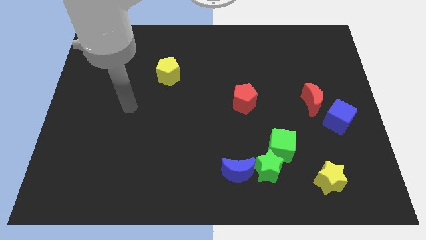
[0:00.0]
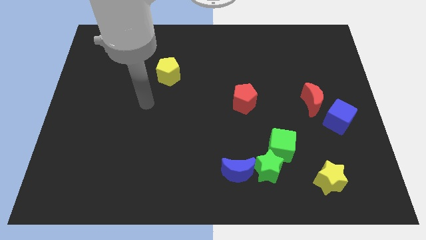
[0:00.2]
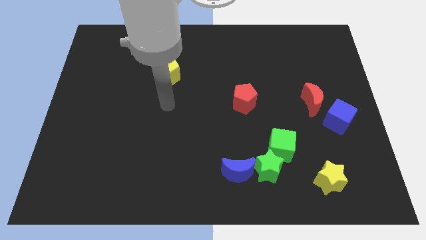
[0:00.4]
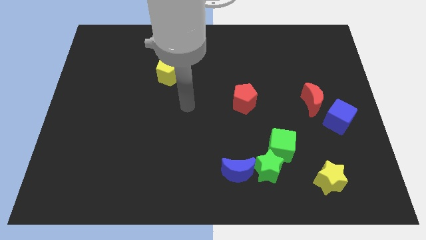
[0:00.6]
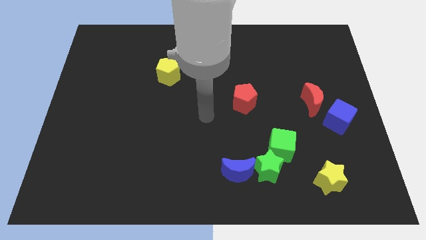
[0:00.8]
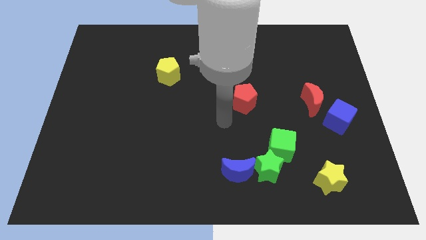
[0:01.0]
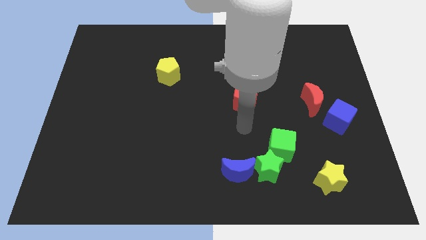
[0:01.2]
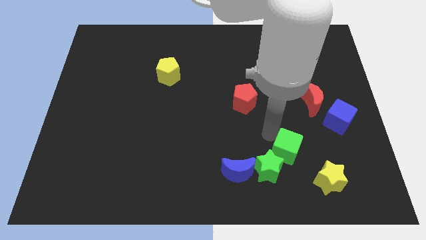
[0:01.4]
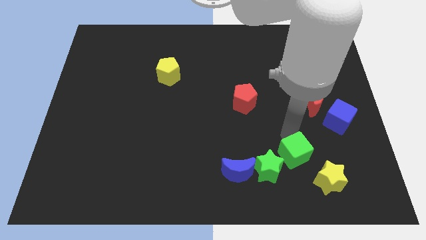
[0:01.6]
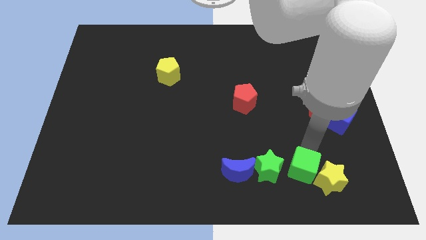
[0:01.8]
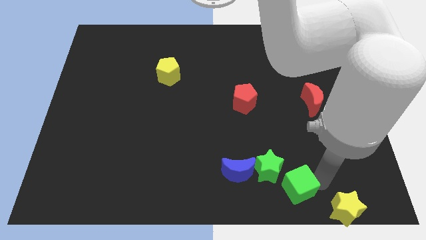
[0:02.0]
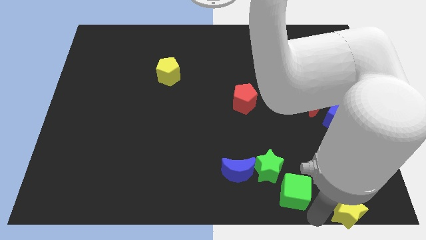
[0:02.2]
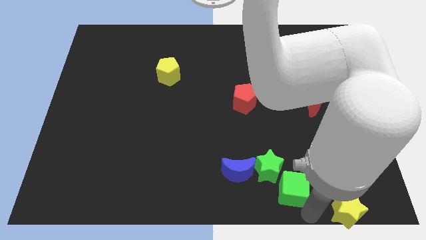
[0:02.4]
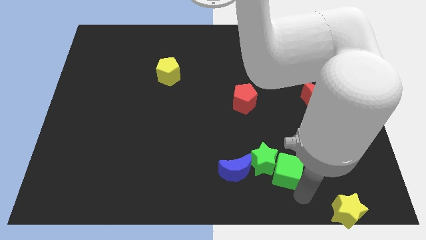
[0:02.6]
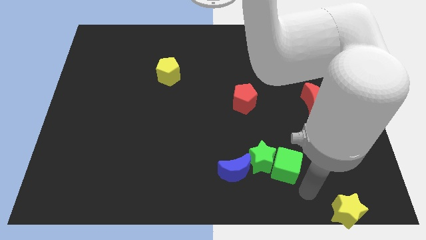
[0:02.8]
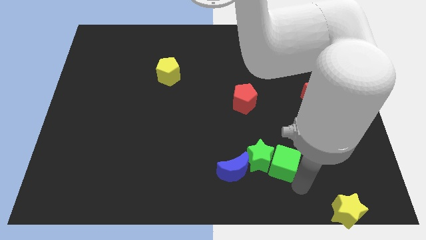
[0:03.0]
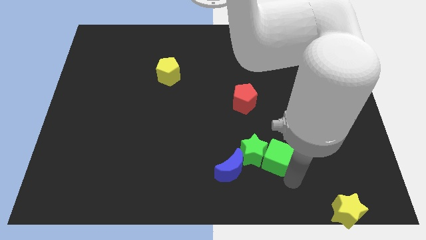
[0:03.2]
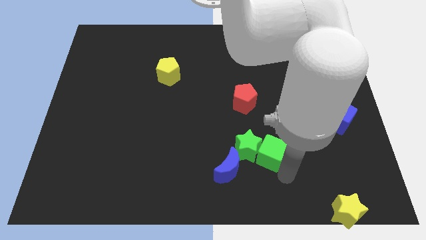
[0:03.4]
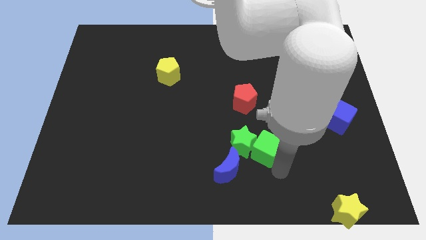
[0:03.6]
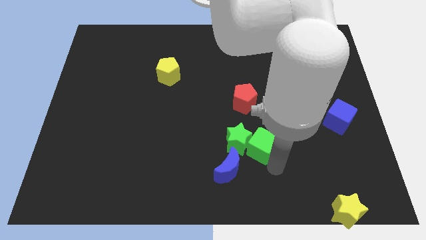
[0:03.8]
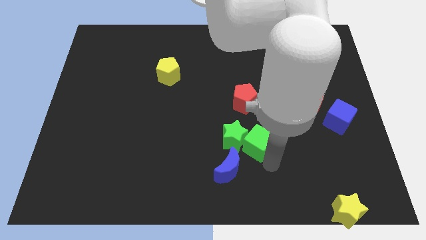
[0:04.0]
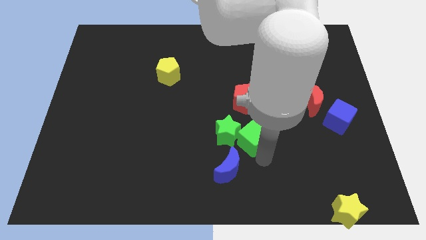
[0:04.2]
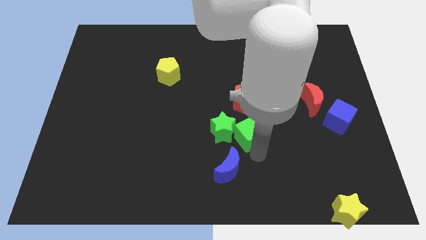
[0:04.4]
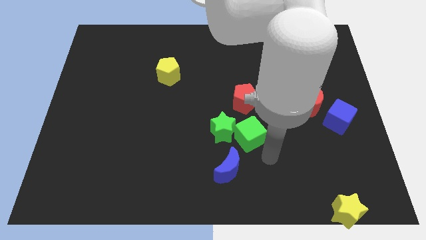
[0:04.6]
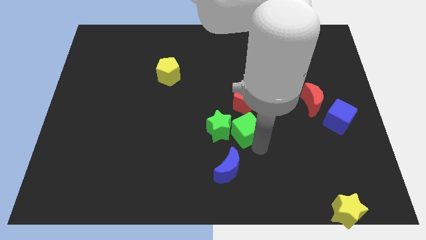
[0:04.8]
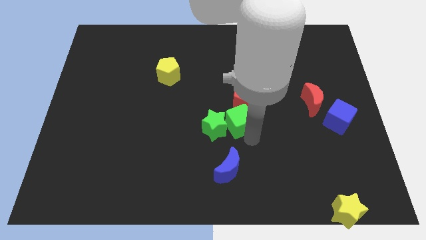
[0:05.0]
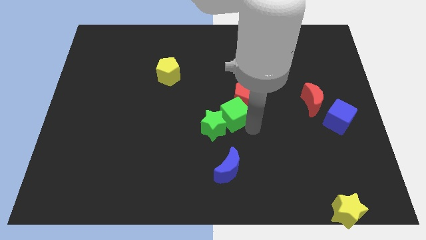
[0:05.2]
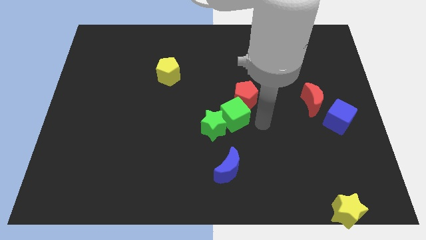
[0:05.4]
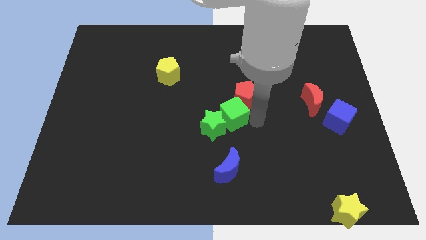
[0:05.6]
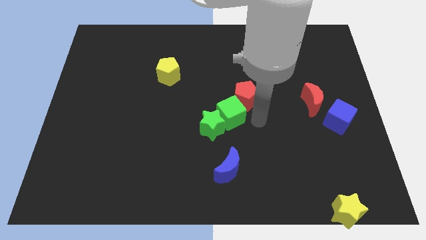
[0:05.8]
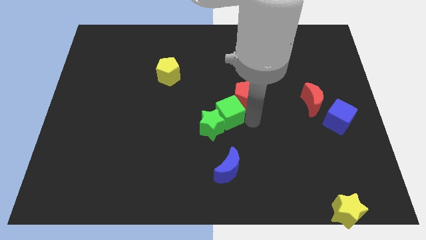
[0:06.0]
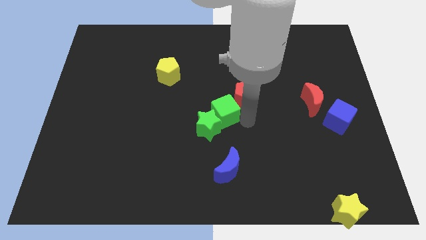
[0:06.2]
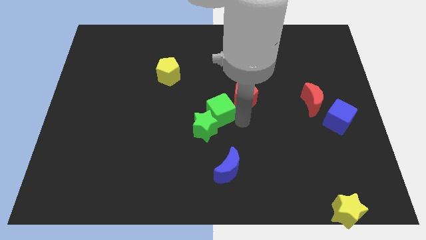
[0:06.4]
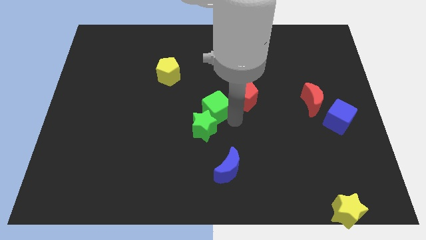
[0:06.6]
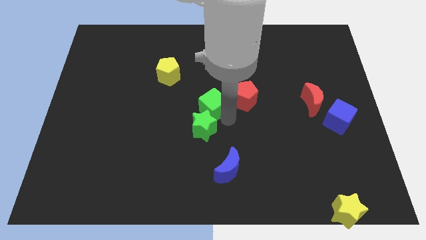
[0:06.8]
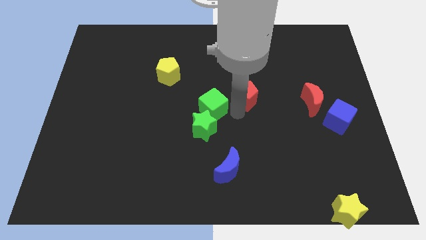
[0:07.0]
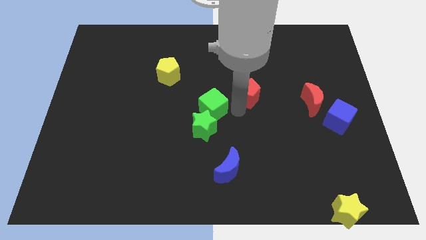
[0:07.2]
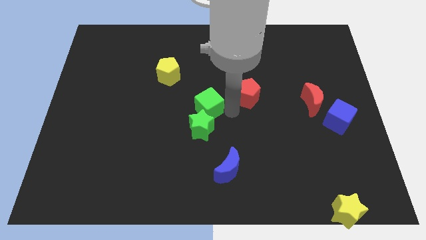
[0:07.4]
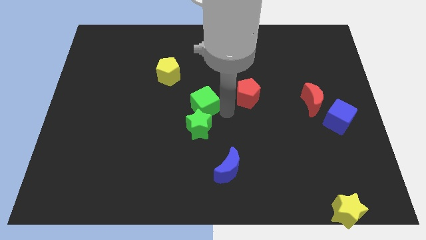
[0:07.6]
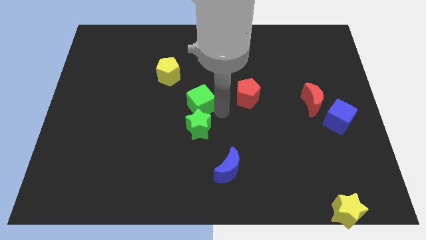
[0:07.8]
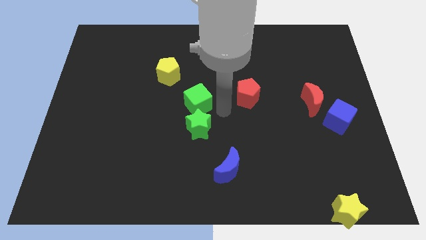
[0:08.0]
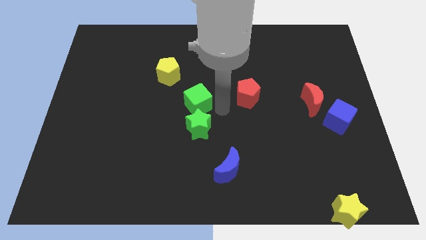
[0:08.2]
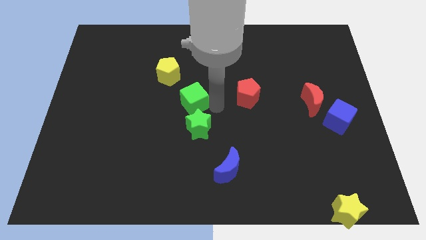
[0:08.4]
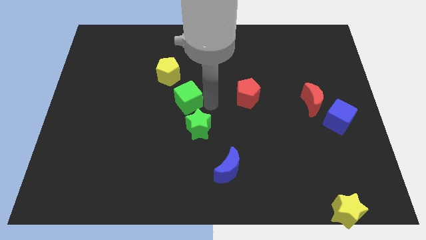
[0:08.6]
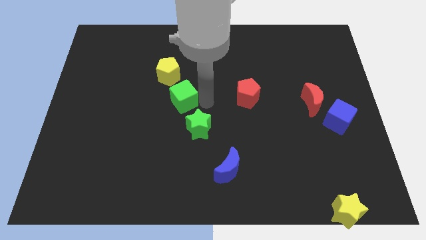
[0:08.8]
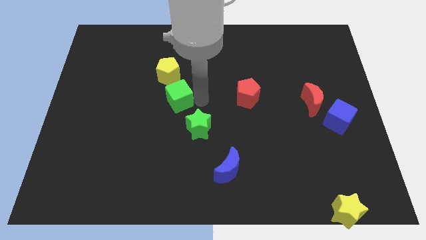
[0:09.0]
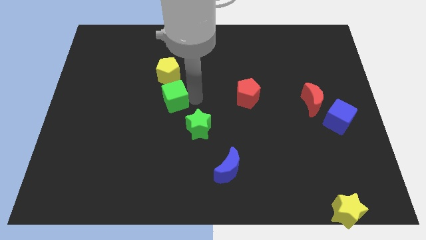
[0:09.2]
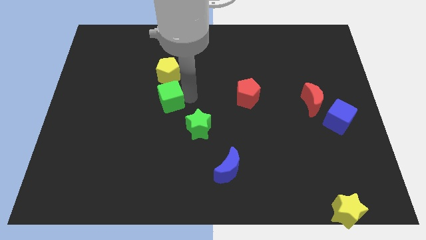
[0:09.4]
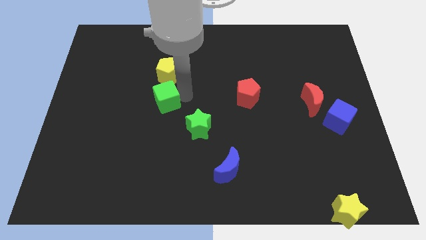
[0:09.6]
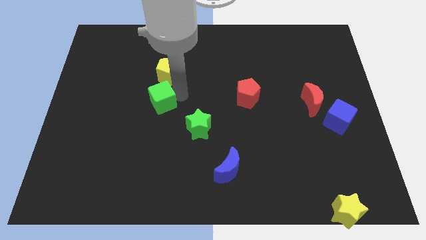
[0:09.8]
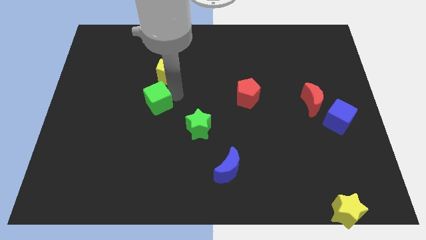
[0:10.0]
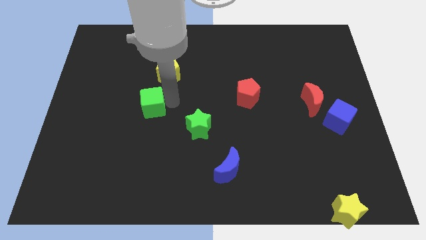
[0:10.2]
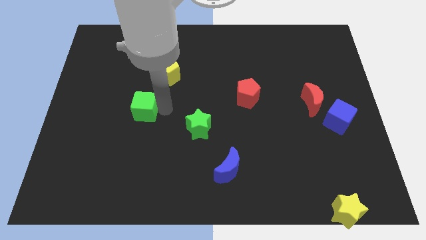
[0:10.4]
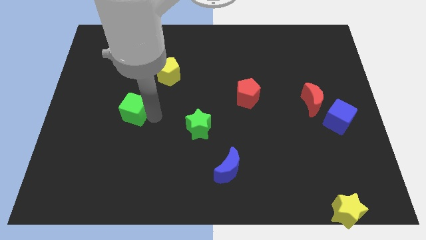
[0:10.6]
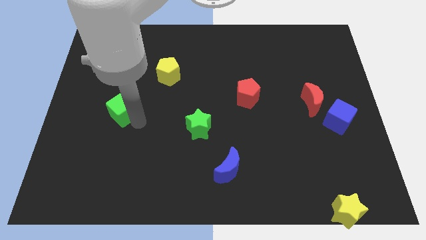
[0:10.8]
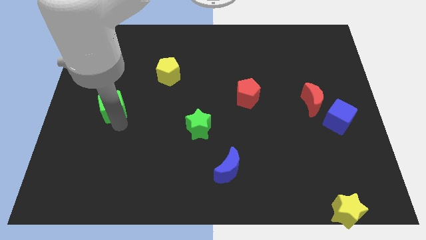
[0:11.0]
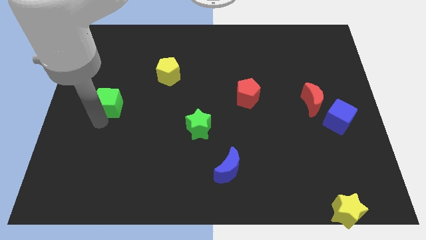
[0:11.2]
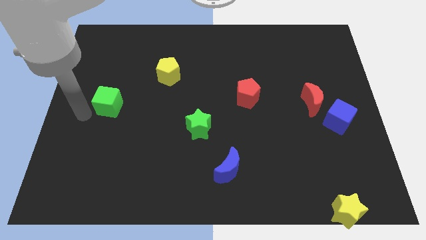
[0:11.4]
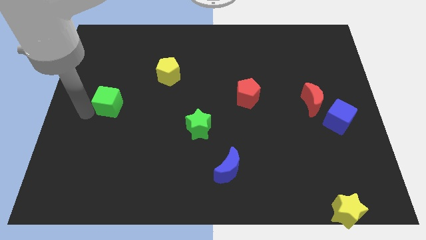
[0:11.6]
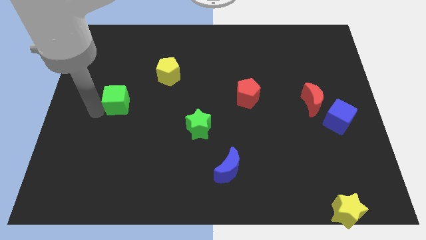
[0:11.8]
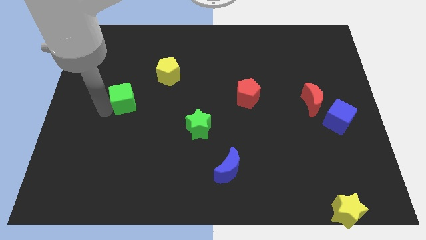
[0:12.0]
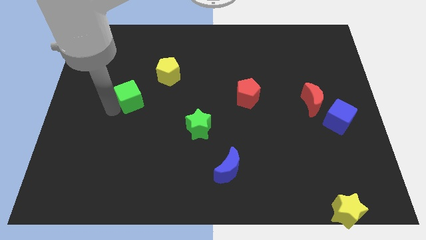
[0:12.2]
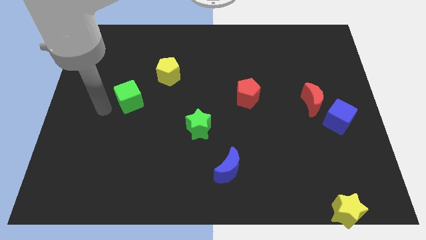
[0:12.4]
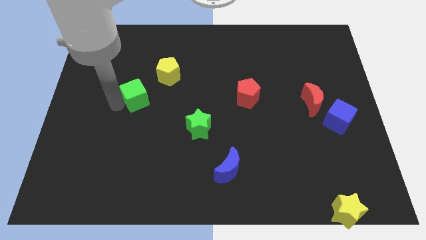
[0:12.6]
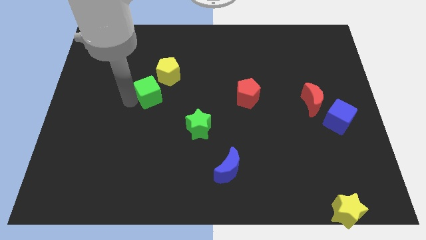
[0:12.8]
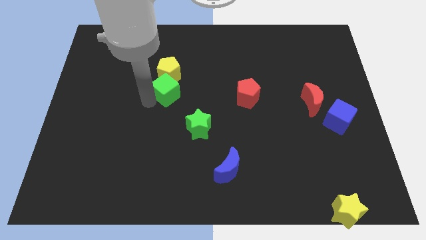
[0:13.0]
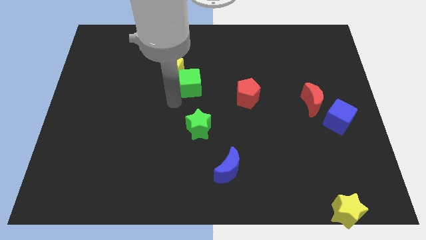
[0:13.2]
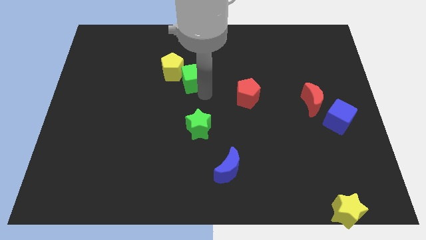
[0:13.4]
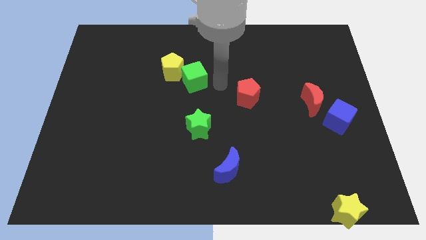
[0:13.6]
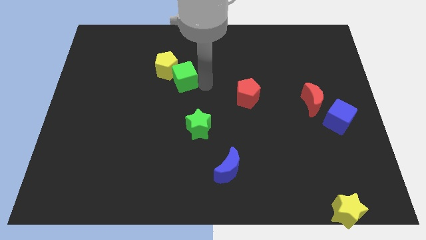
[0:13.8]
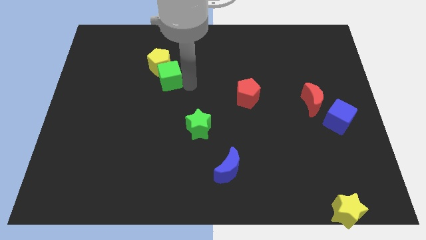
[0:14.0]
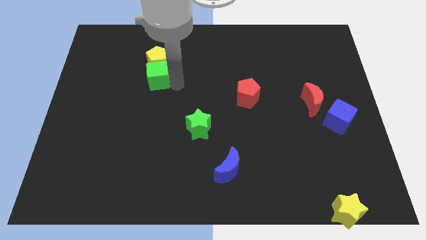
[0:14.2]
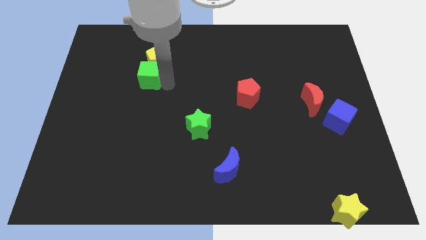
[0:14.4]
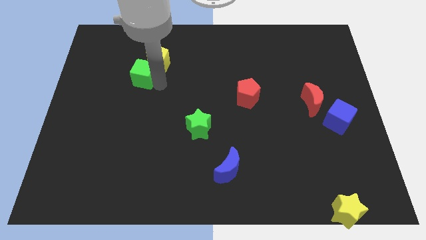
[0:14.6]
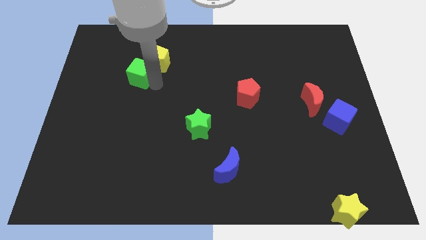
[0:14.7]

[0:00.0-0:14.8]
move the green cube to the left of the yellow pentagon
